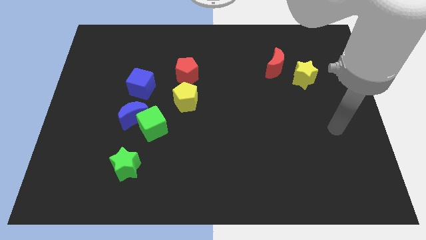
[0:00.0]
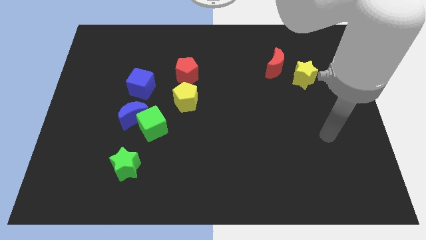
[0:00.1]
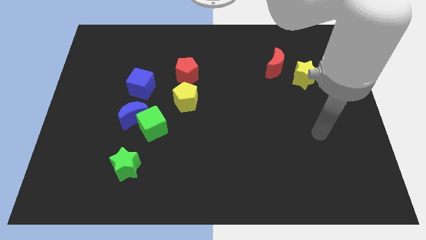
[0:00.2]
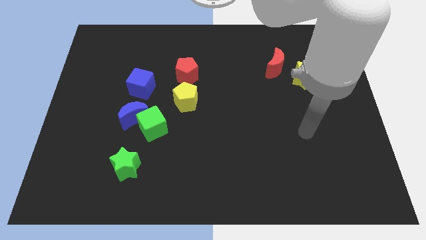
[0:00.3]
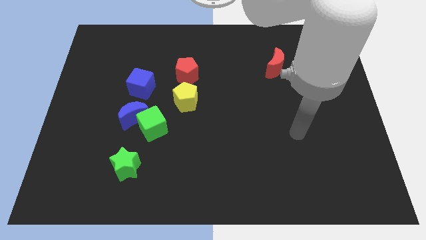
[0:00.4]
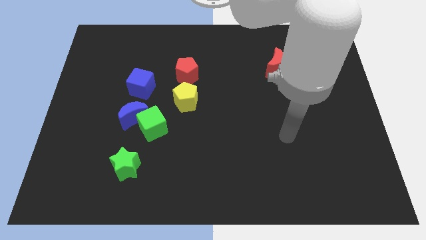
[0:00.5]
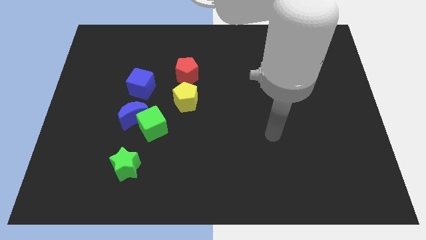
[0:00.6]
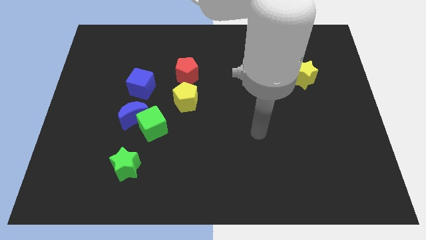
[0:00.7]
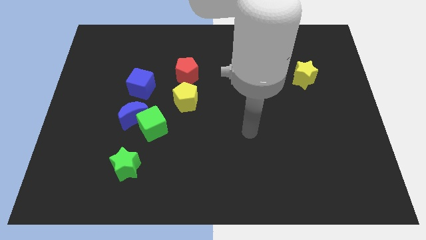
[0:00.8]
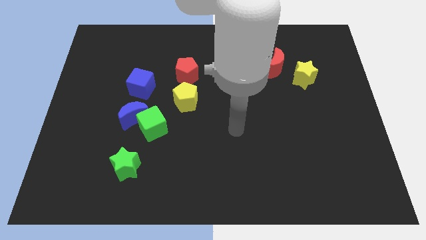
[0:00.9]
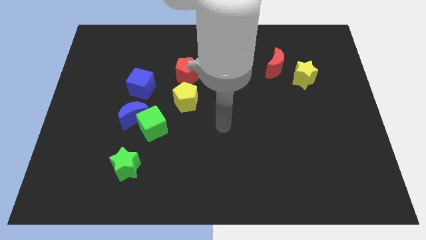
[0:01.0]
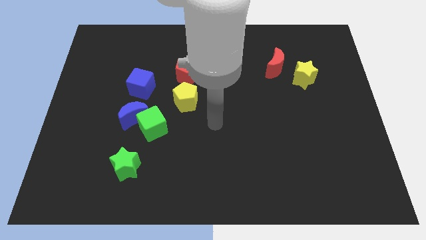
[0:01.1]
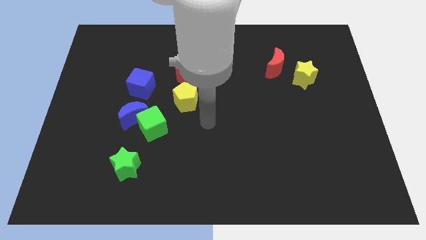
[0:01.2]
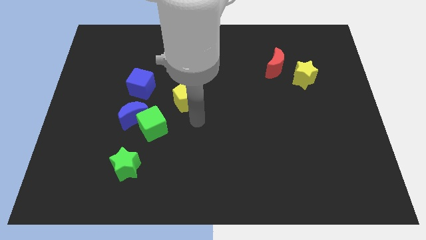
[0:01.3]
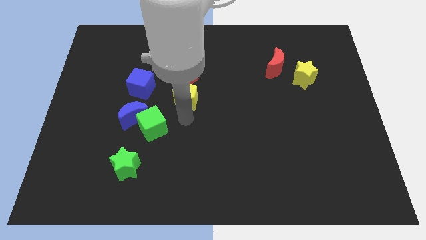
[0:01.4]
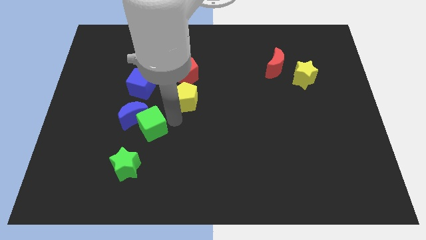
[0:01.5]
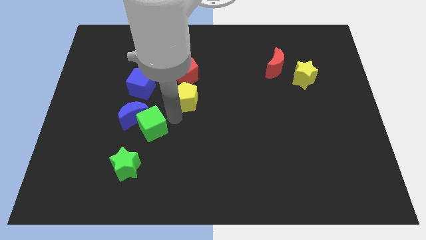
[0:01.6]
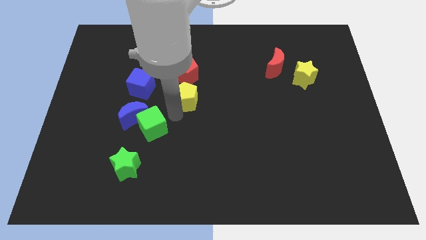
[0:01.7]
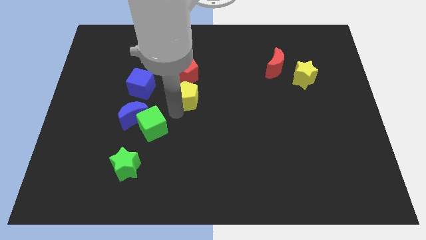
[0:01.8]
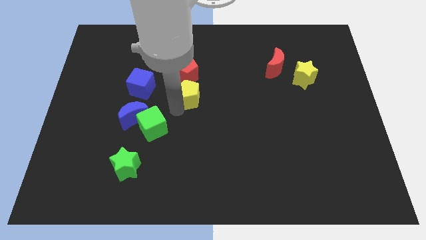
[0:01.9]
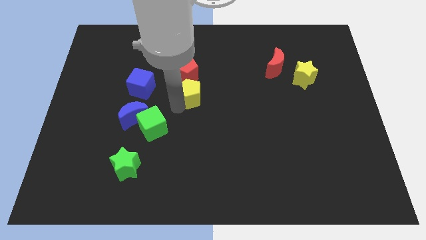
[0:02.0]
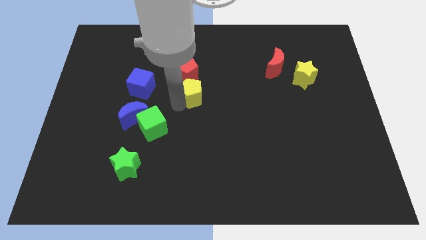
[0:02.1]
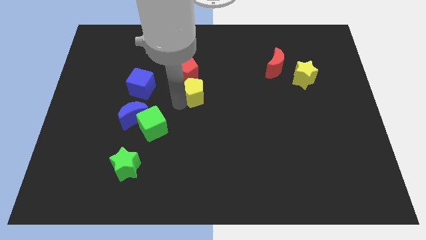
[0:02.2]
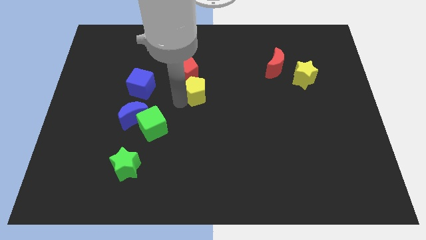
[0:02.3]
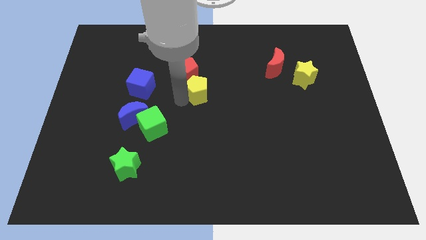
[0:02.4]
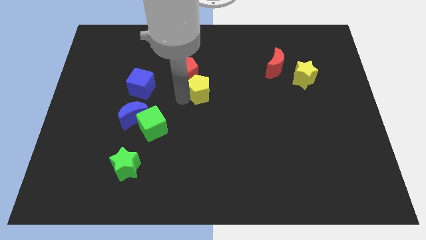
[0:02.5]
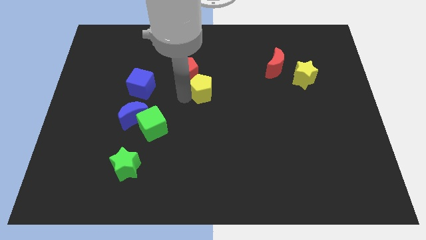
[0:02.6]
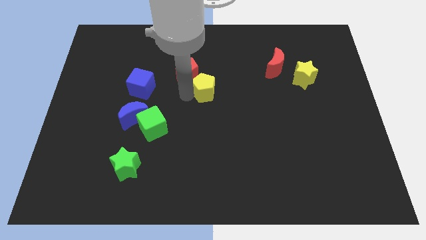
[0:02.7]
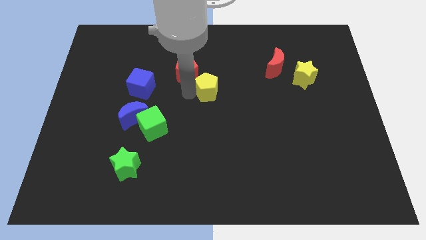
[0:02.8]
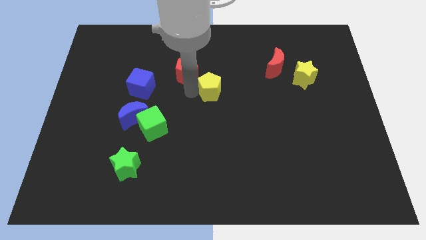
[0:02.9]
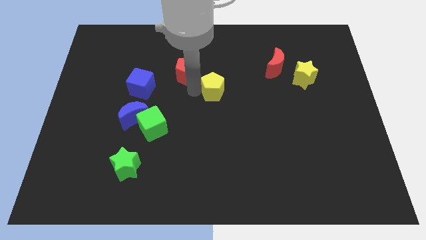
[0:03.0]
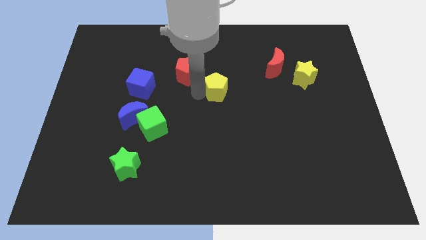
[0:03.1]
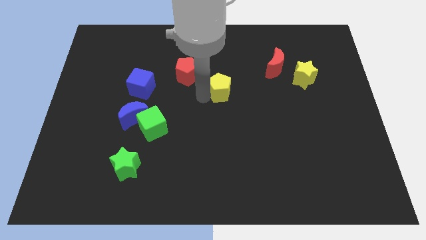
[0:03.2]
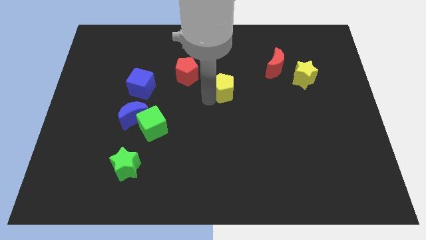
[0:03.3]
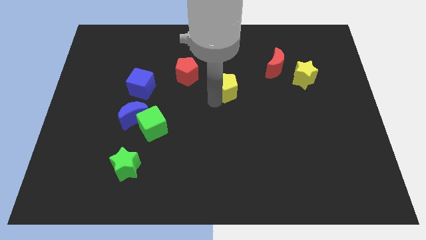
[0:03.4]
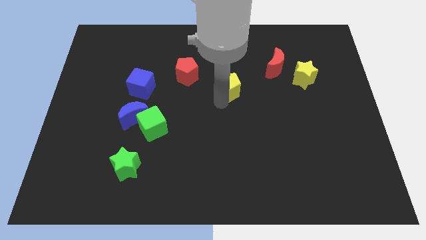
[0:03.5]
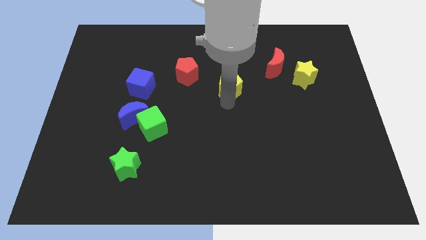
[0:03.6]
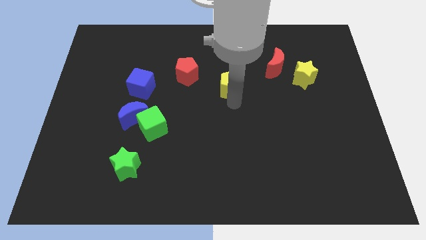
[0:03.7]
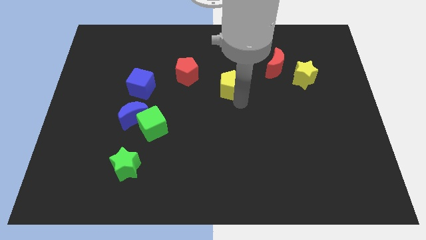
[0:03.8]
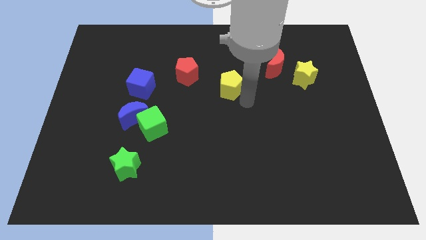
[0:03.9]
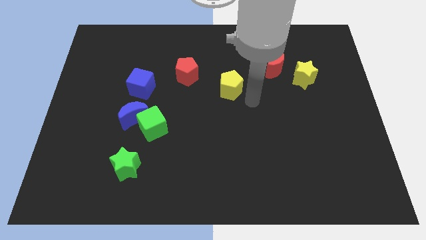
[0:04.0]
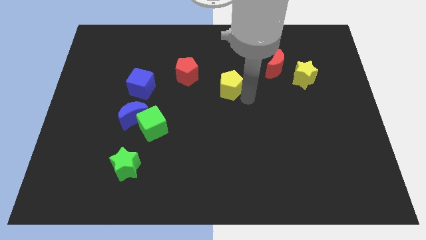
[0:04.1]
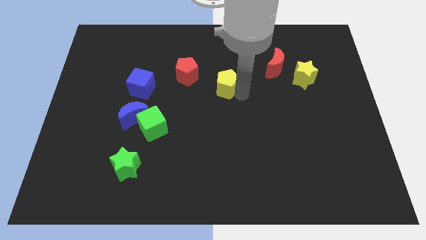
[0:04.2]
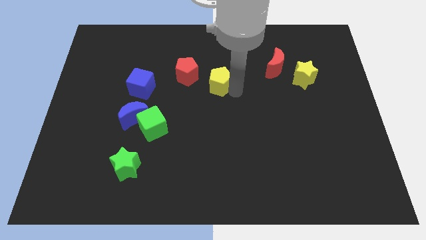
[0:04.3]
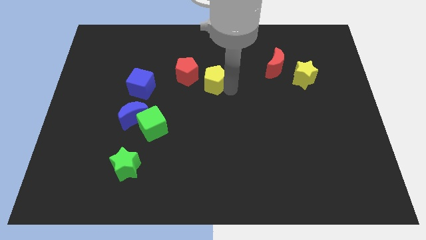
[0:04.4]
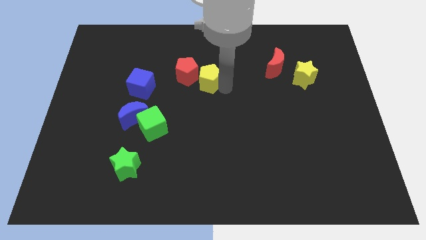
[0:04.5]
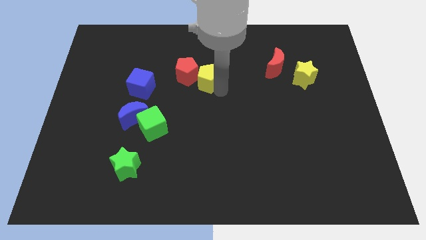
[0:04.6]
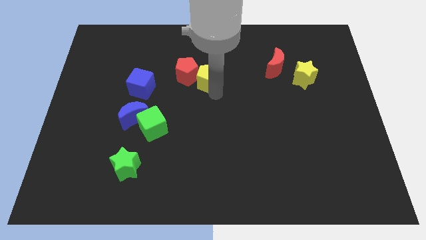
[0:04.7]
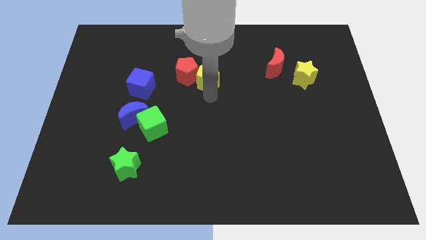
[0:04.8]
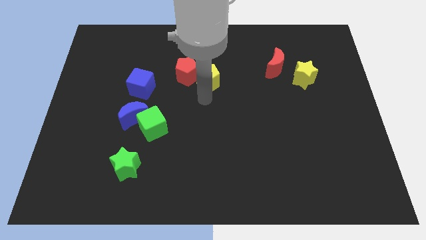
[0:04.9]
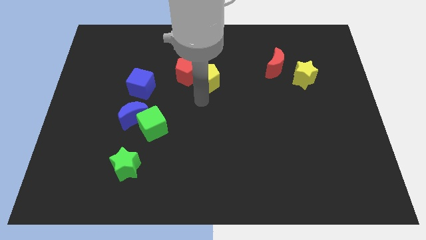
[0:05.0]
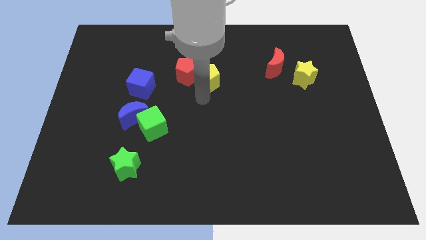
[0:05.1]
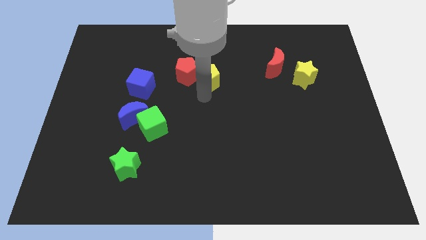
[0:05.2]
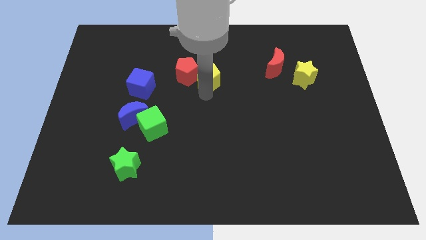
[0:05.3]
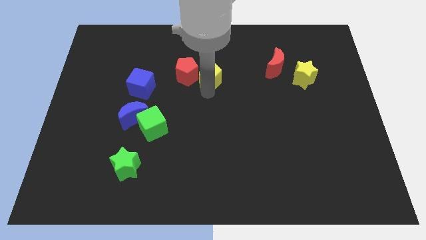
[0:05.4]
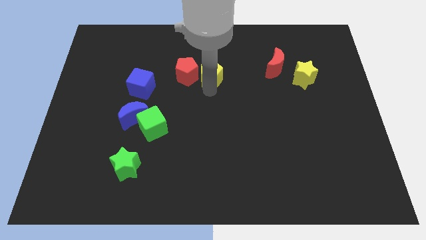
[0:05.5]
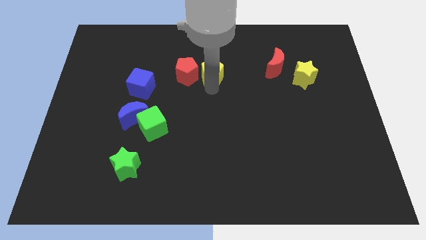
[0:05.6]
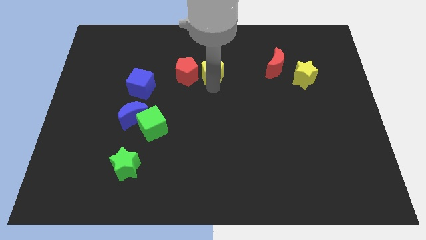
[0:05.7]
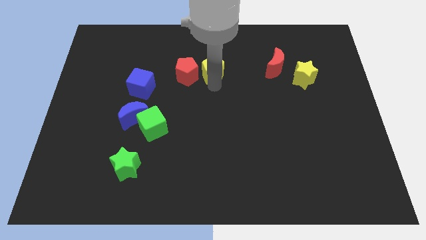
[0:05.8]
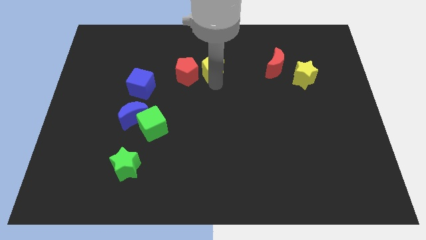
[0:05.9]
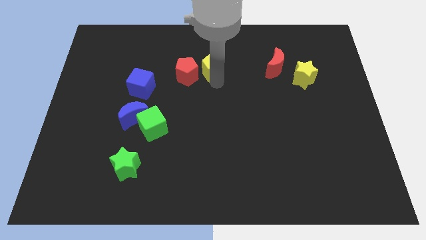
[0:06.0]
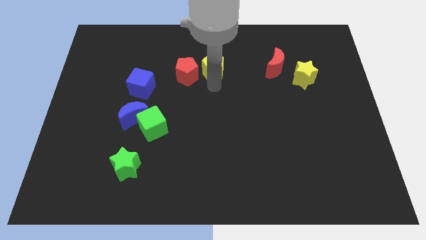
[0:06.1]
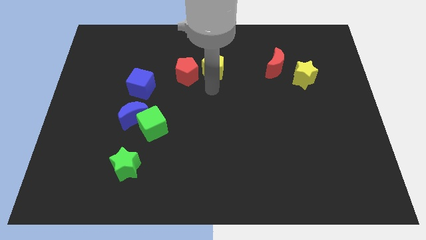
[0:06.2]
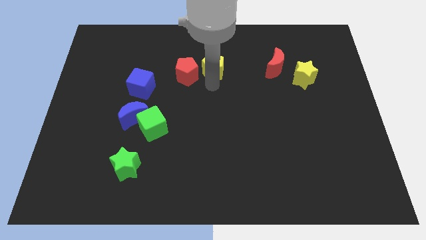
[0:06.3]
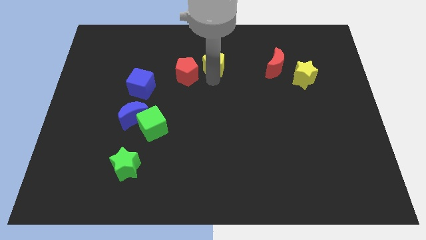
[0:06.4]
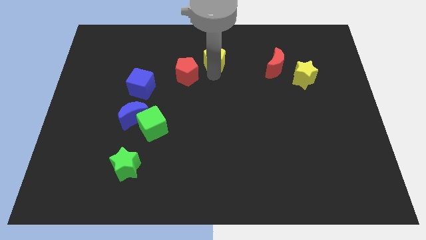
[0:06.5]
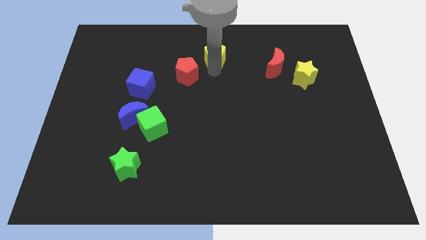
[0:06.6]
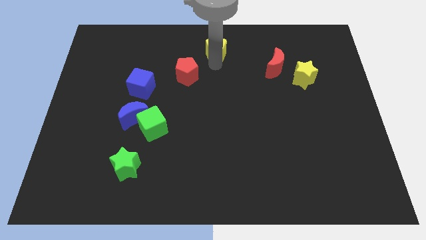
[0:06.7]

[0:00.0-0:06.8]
put the yellow pentagon to the top
